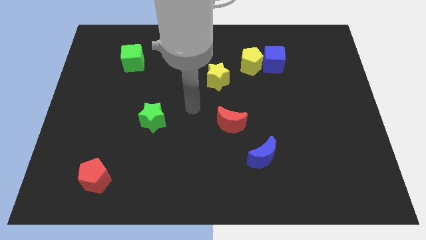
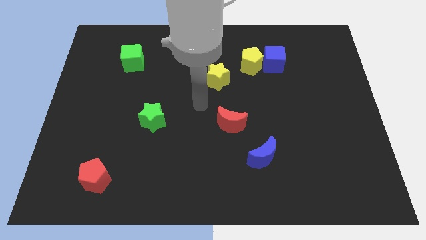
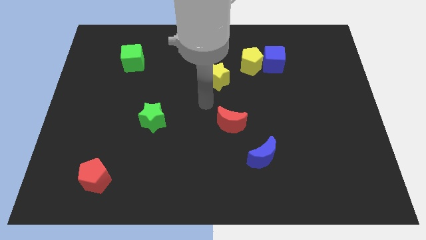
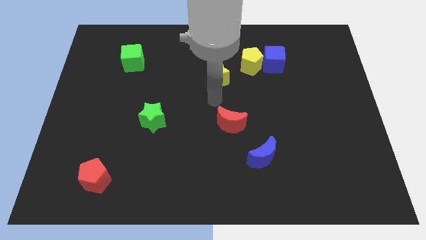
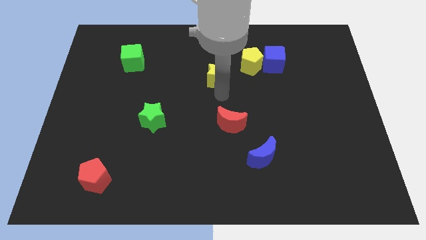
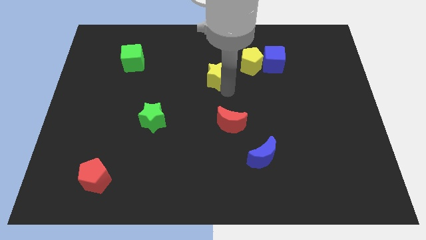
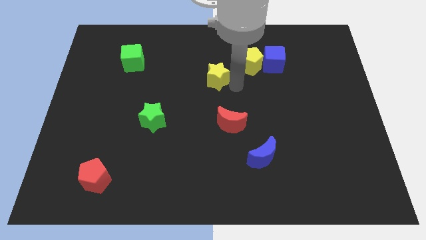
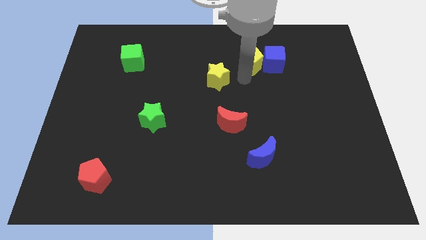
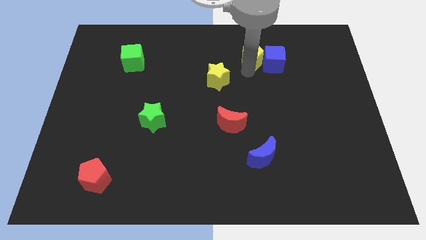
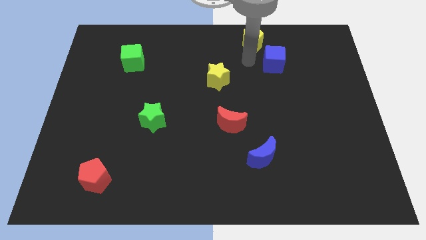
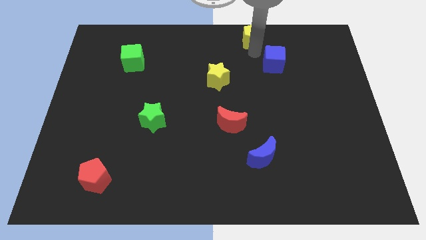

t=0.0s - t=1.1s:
move the blue cube away from the yellow pentagon

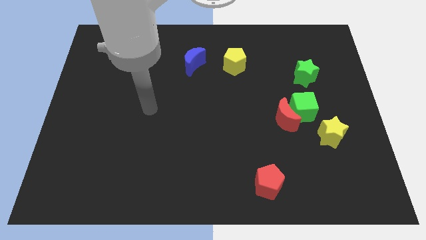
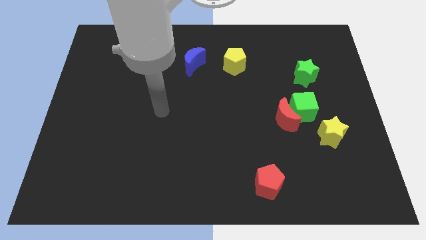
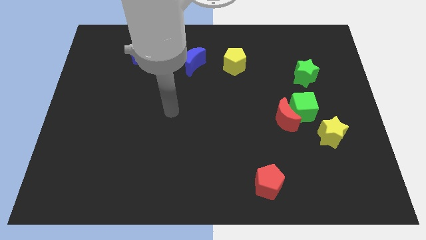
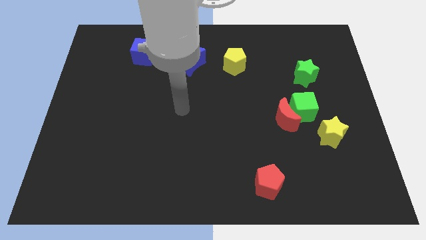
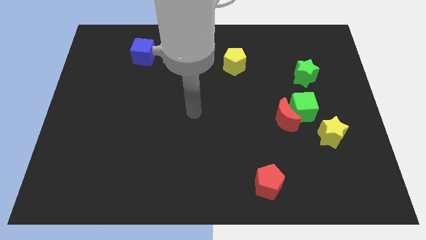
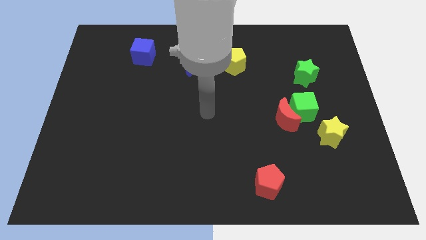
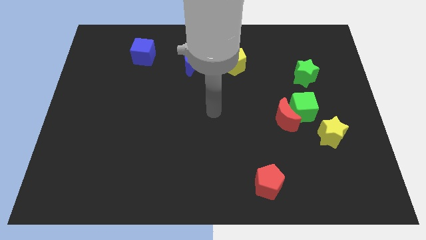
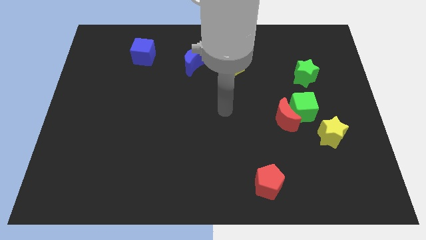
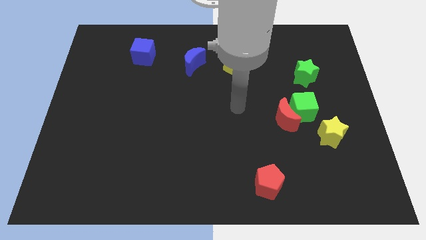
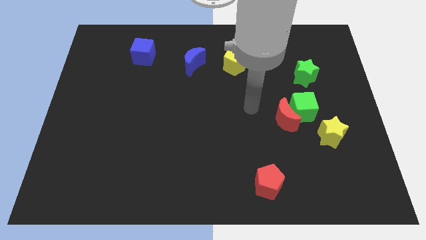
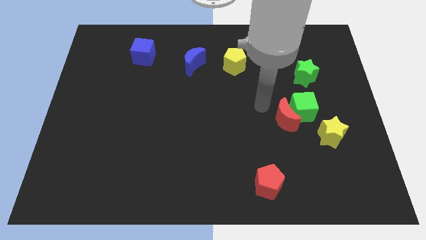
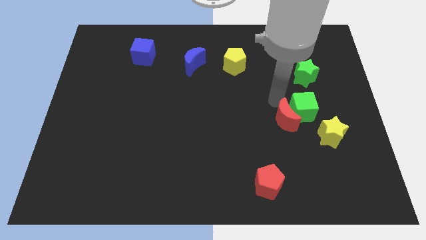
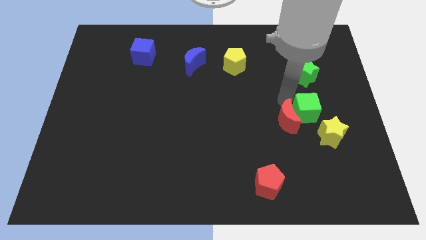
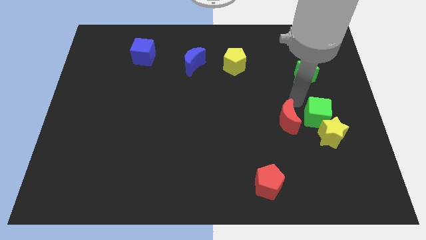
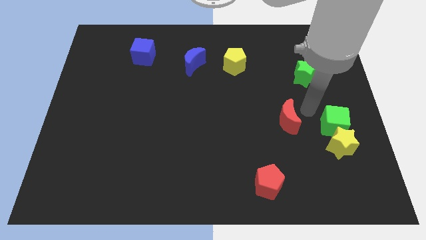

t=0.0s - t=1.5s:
pull the red moon apart from the green cube

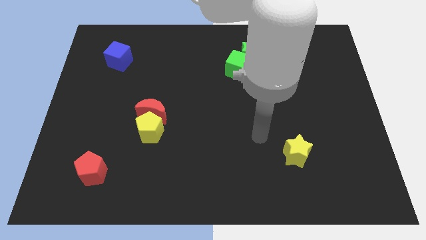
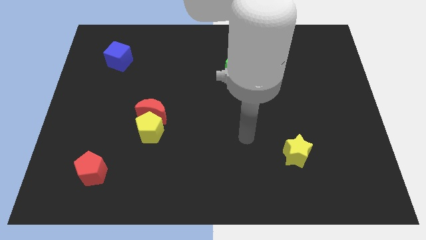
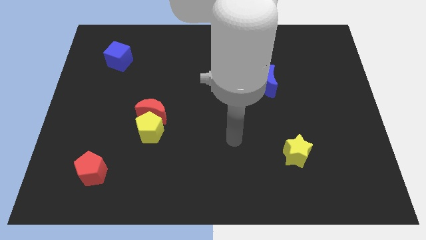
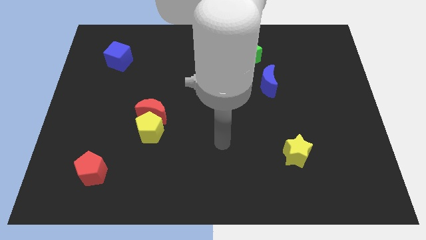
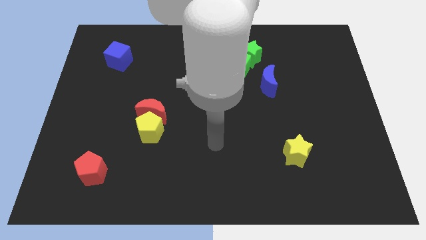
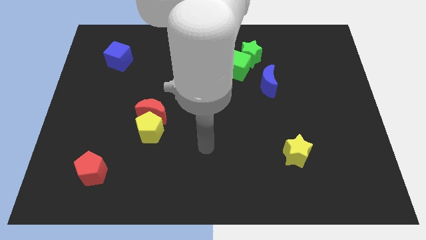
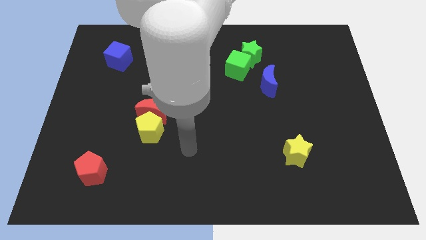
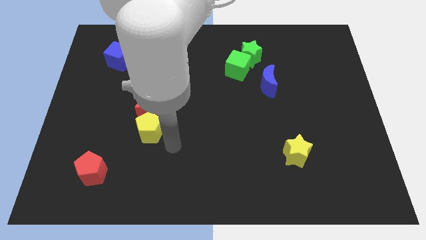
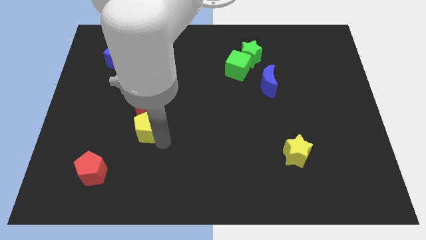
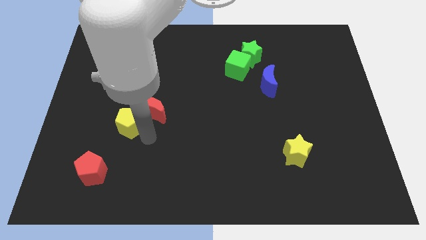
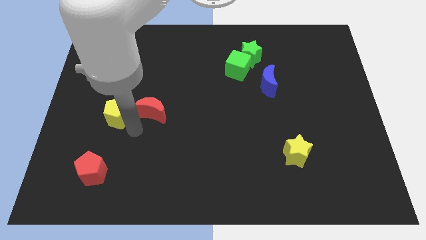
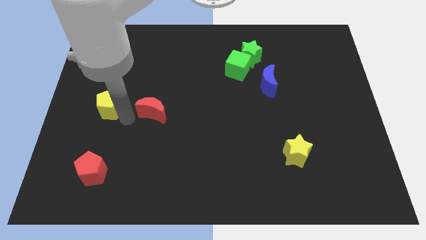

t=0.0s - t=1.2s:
pull the red moon apart from the yellow pentagon

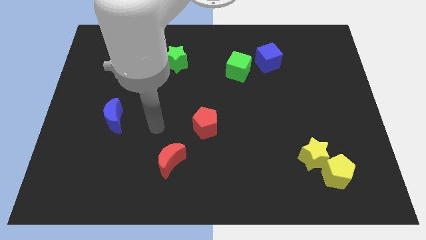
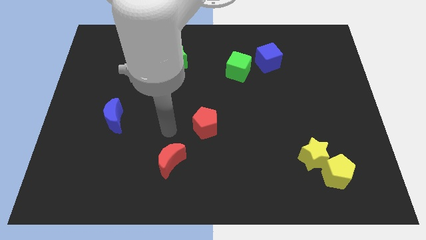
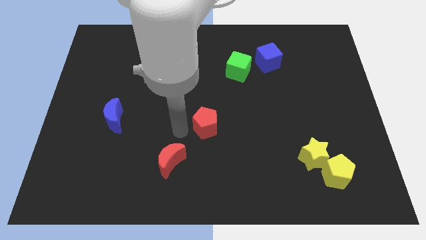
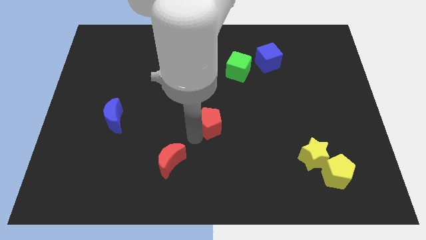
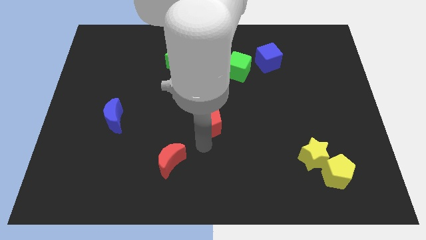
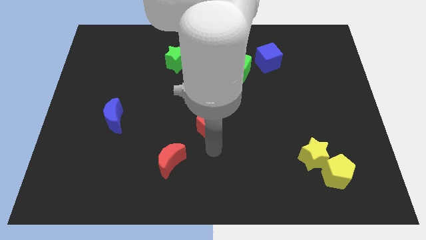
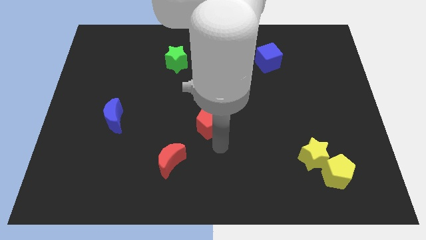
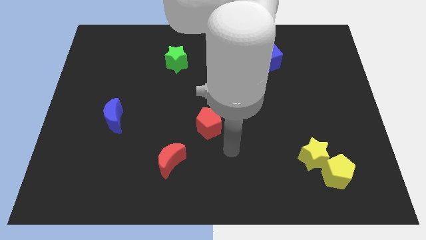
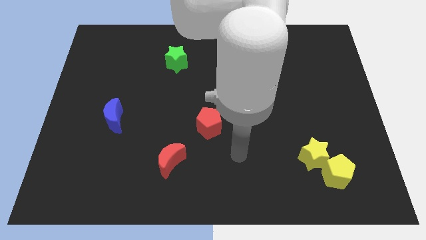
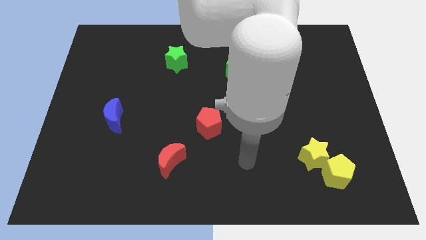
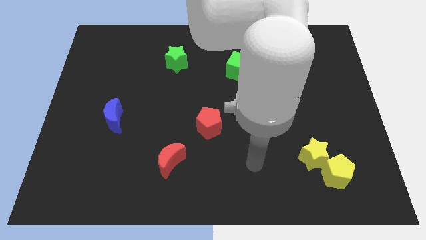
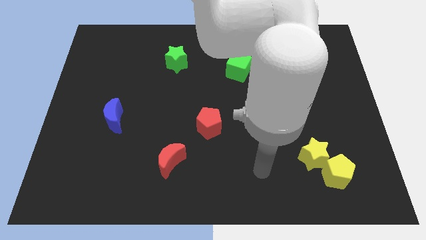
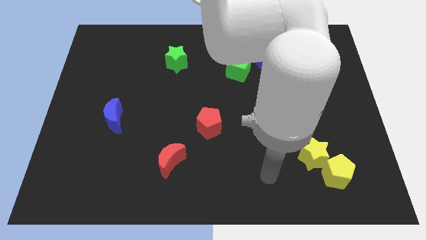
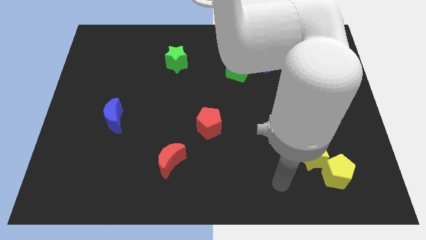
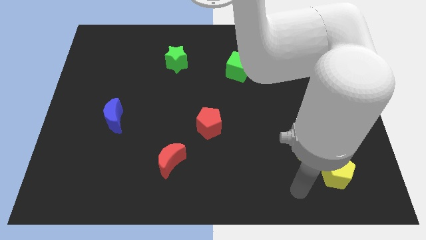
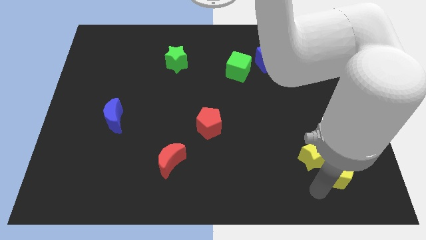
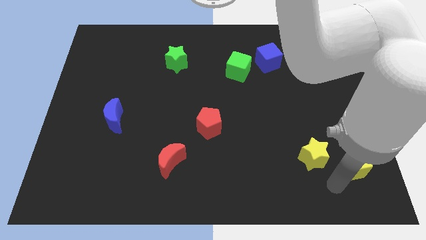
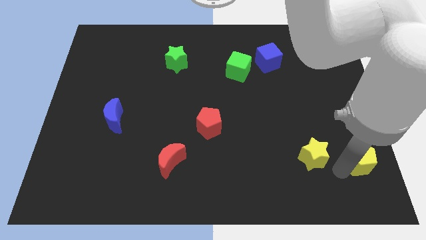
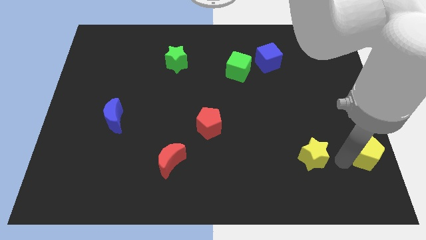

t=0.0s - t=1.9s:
separate the yellow star from the yellow pentagon

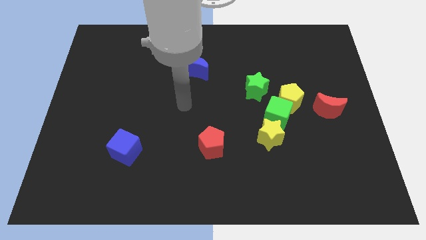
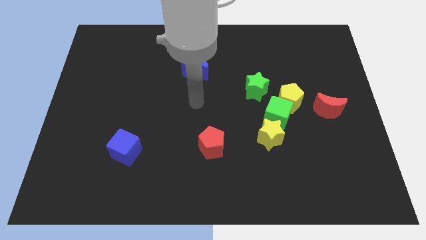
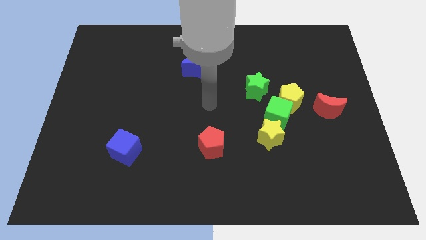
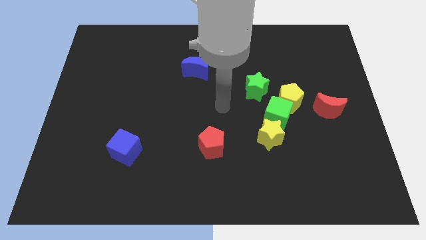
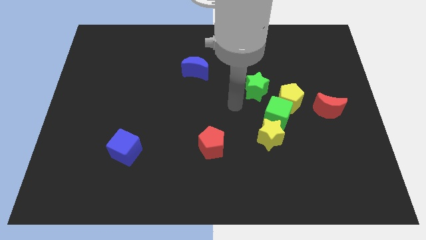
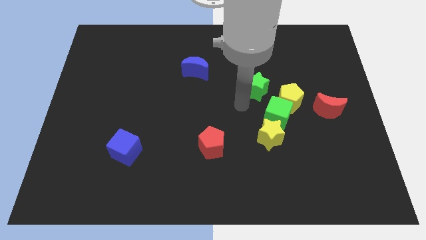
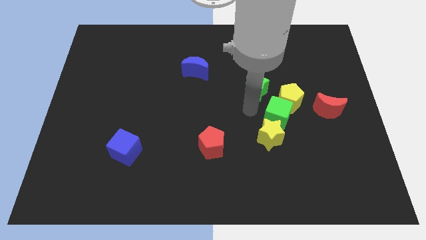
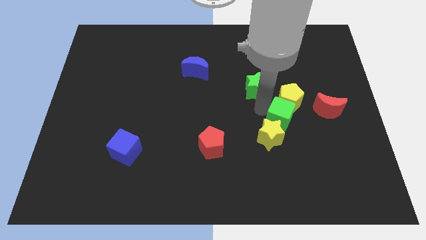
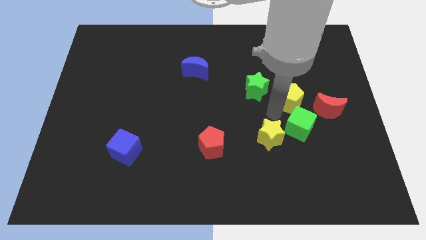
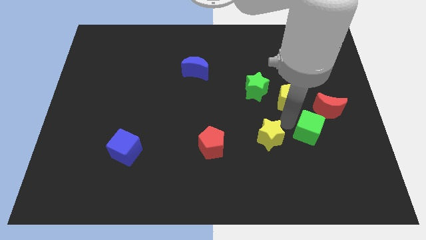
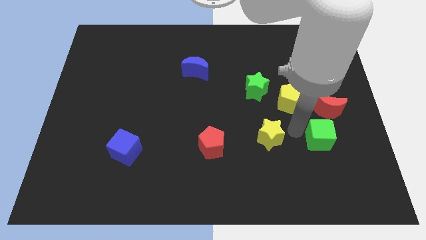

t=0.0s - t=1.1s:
pull the yellow star apart from the green cube

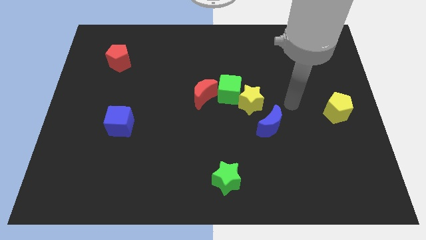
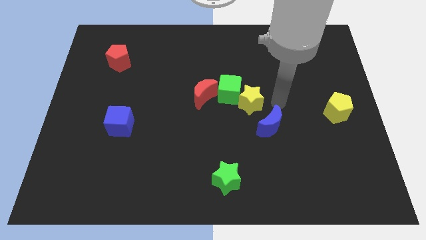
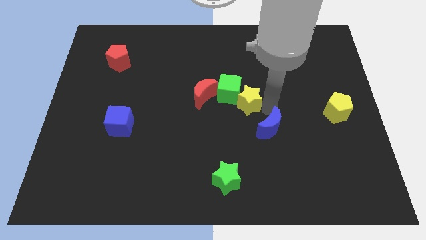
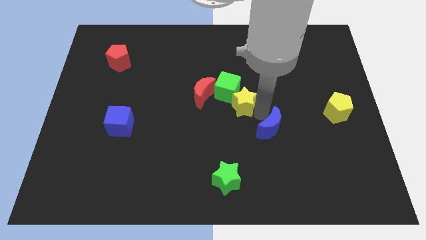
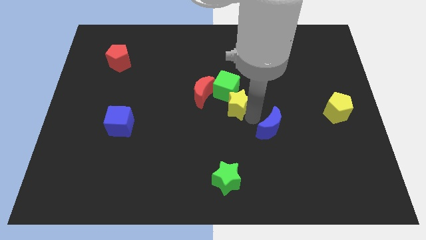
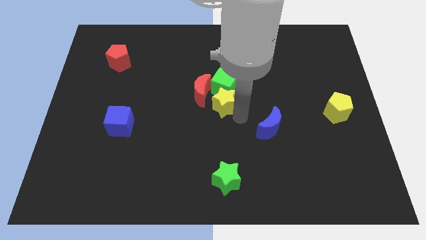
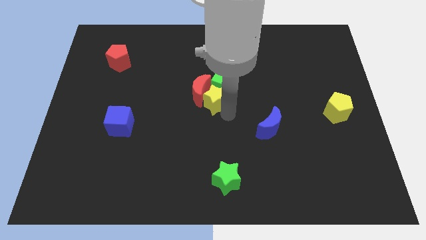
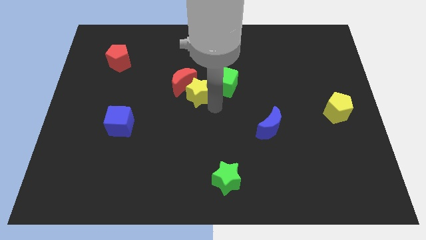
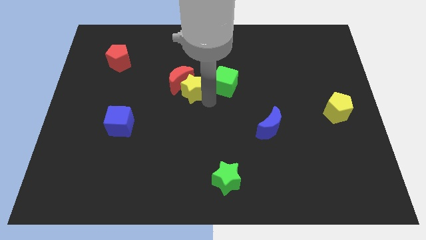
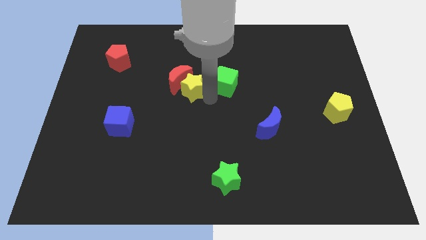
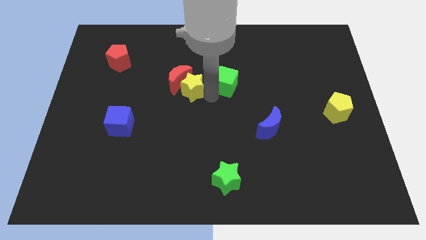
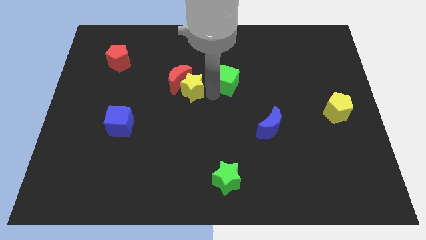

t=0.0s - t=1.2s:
separate the green cube from the yellow star and red moon

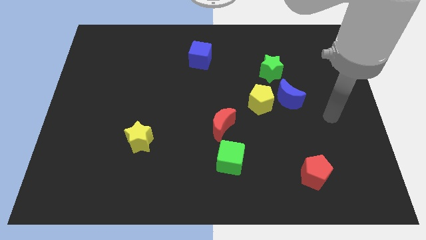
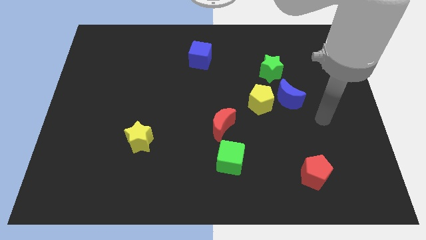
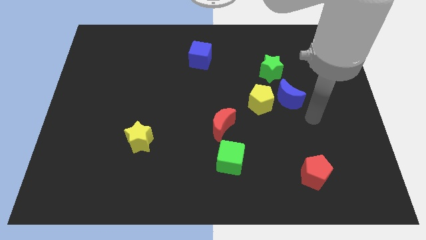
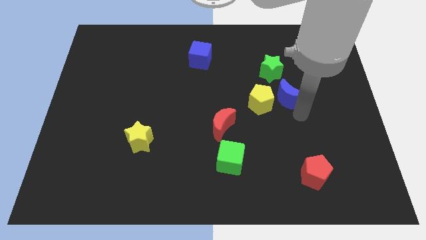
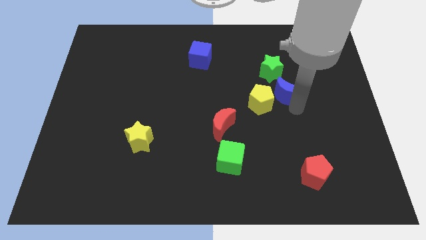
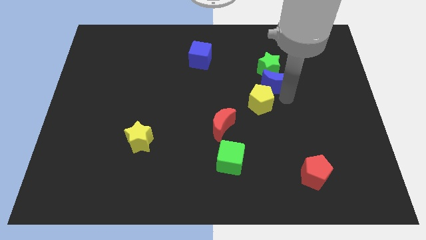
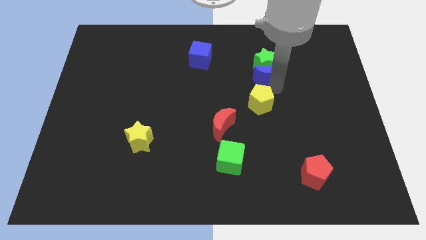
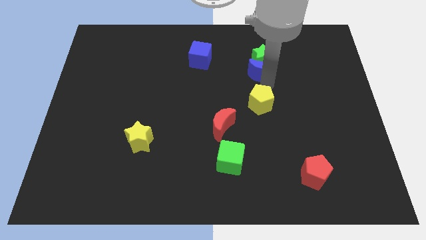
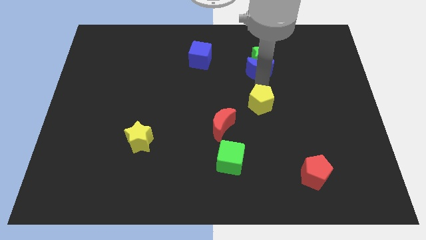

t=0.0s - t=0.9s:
move the yellow pentagon away from the blue moon

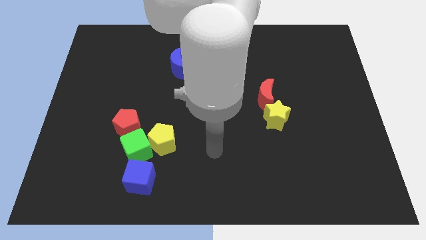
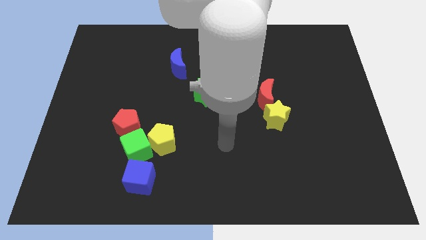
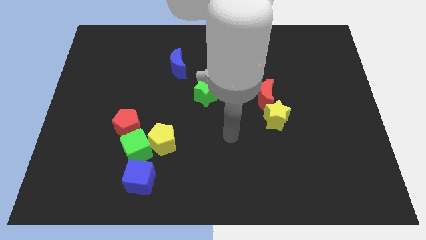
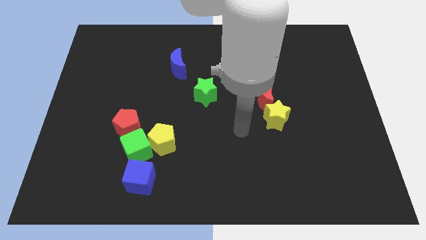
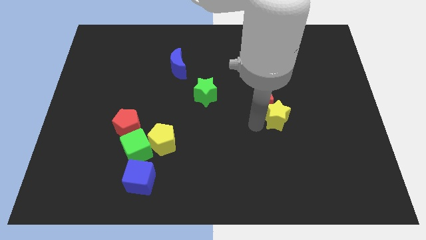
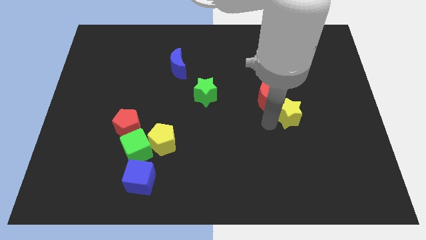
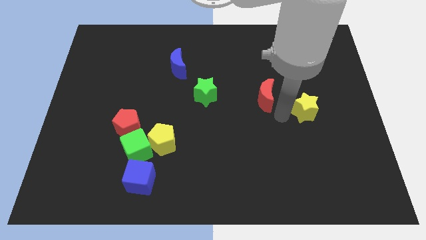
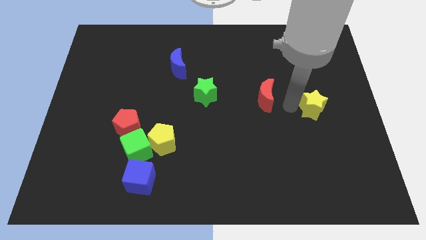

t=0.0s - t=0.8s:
move the red moon away from the yellow star
